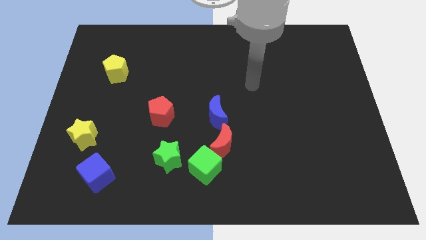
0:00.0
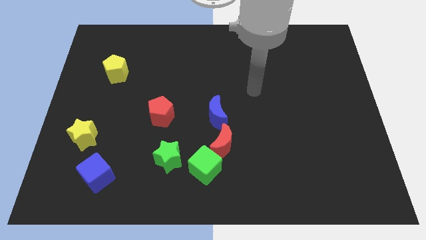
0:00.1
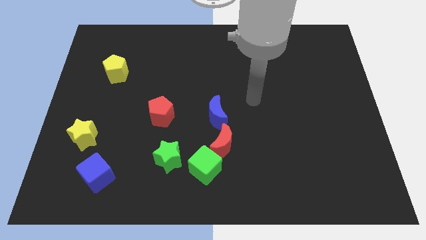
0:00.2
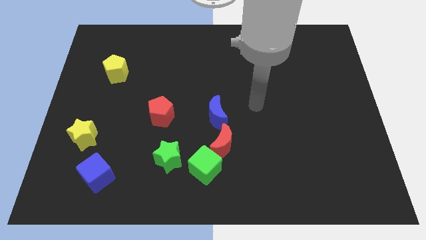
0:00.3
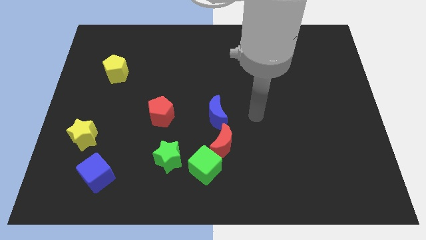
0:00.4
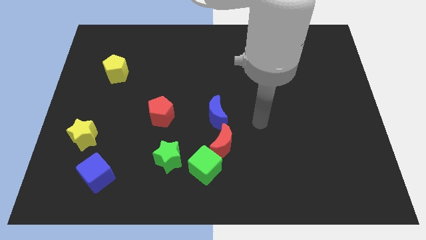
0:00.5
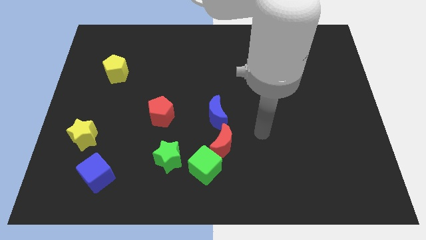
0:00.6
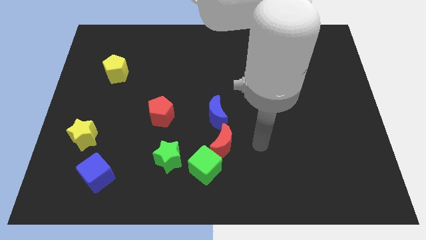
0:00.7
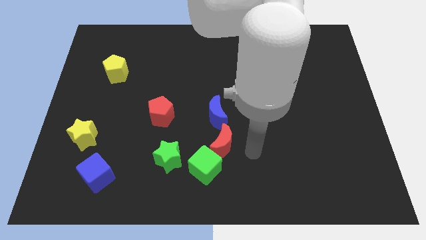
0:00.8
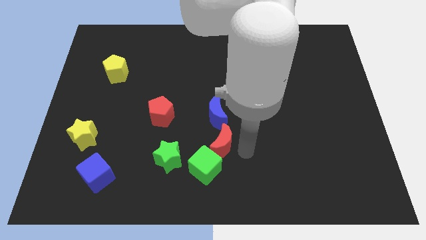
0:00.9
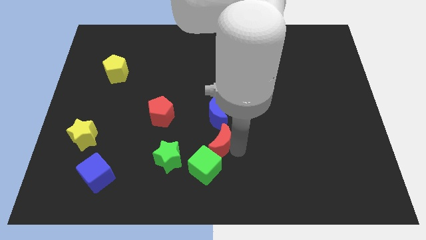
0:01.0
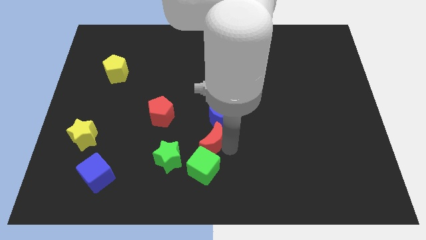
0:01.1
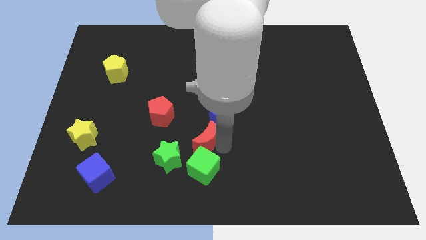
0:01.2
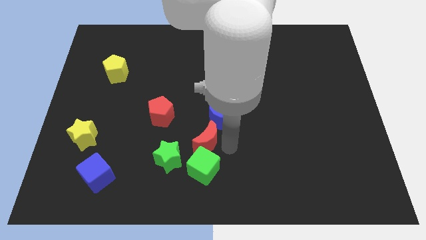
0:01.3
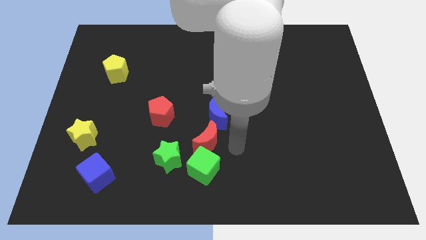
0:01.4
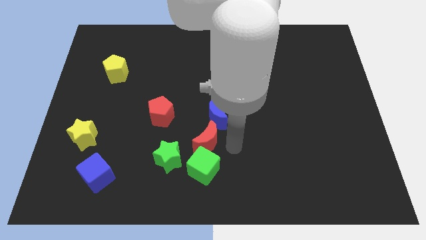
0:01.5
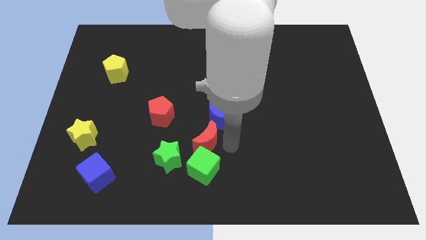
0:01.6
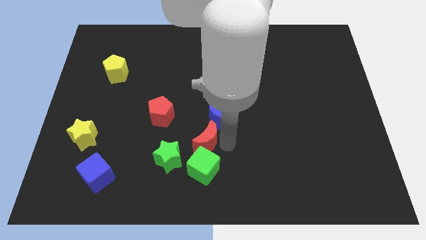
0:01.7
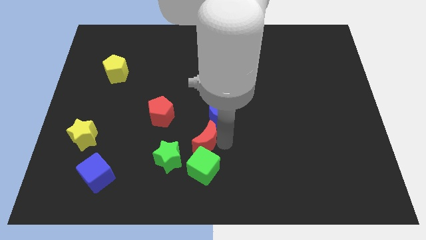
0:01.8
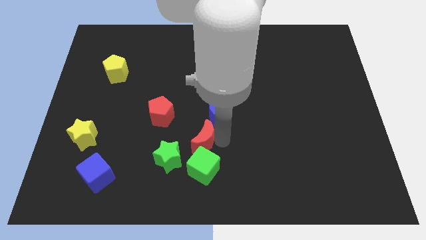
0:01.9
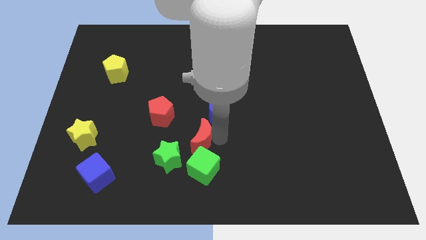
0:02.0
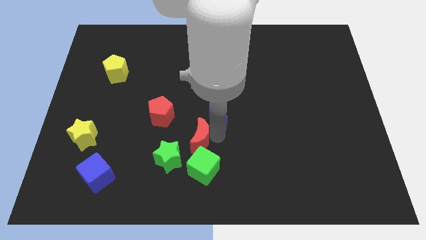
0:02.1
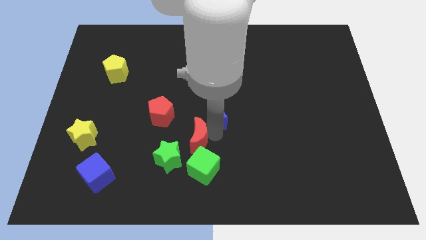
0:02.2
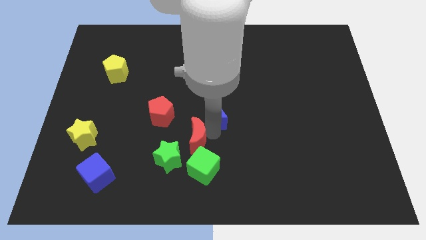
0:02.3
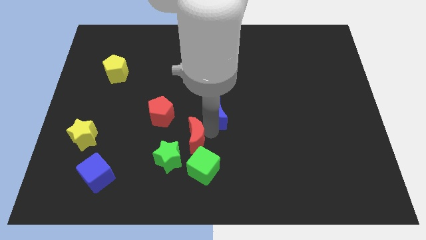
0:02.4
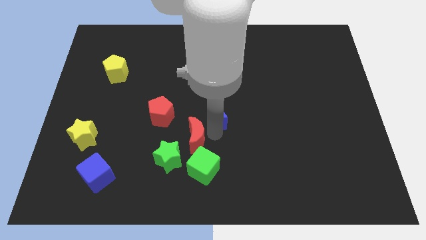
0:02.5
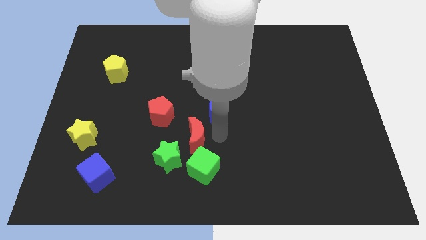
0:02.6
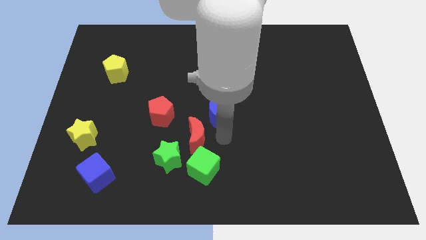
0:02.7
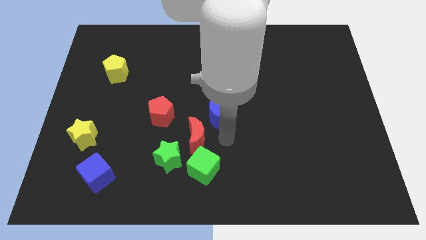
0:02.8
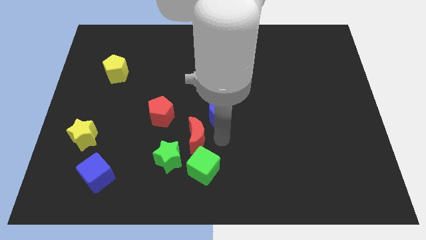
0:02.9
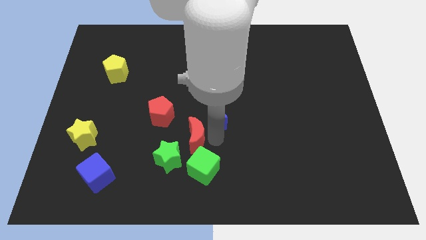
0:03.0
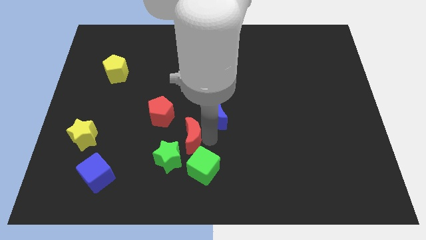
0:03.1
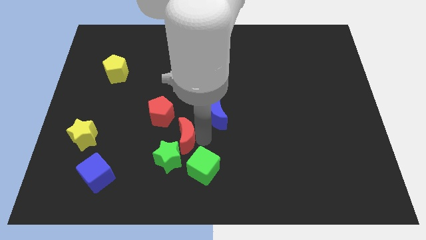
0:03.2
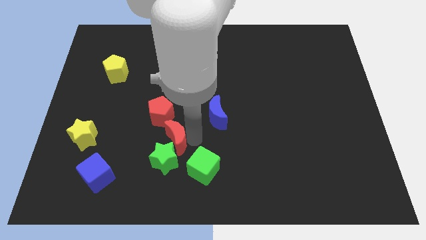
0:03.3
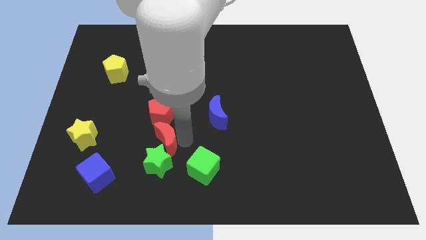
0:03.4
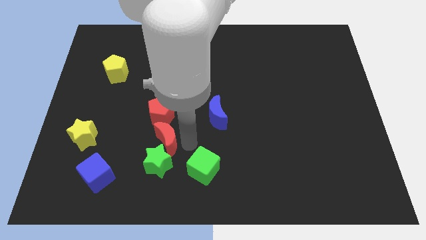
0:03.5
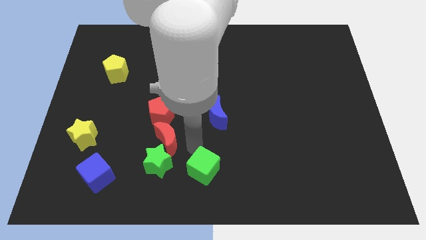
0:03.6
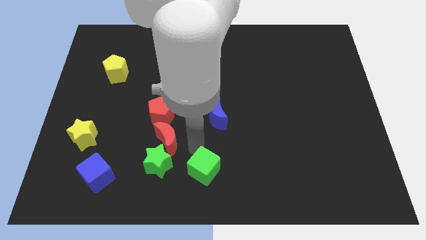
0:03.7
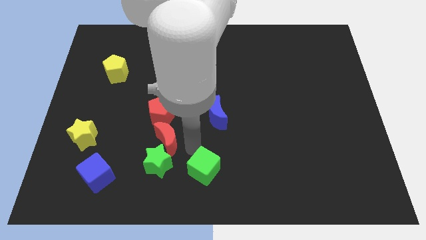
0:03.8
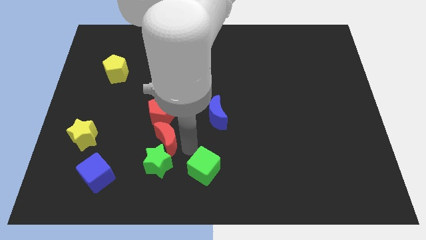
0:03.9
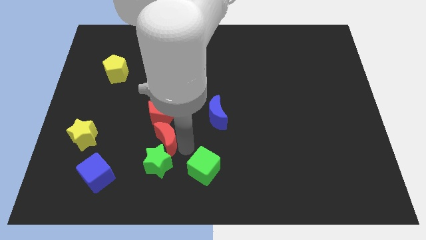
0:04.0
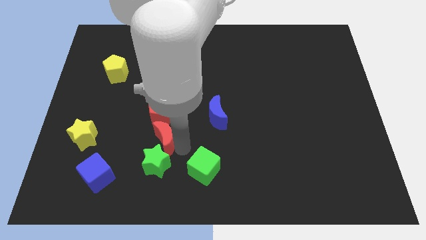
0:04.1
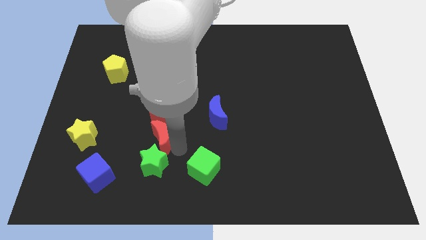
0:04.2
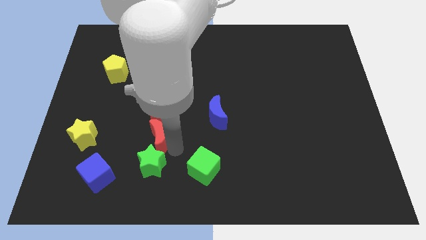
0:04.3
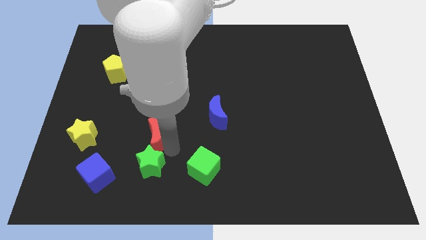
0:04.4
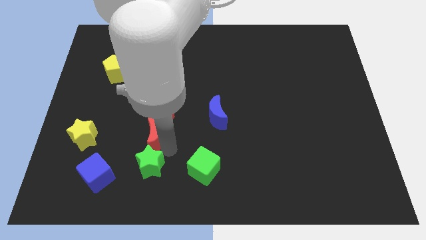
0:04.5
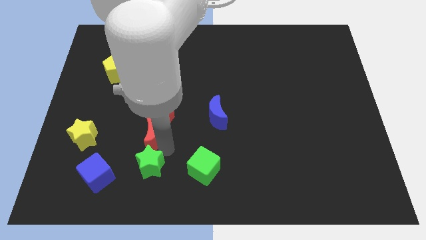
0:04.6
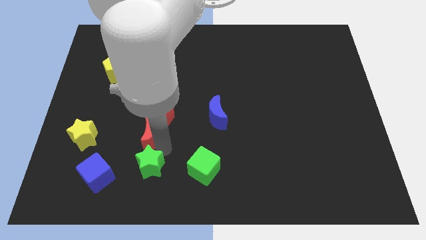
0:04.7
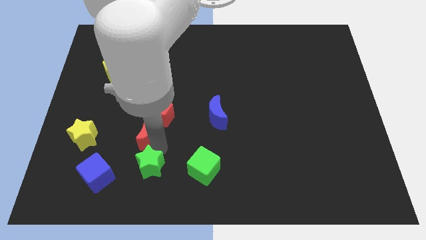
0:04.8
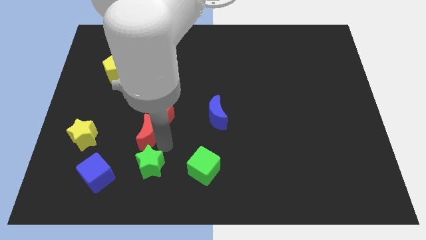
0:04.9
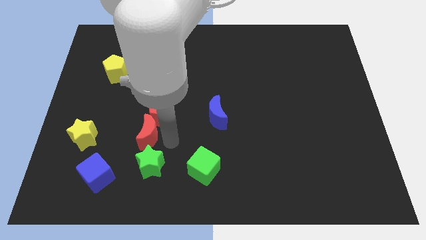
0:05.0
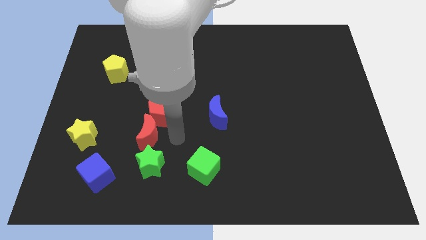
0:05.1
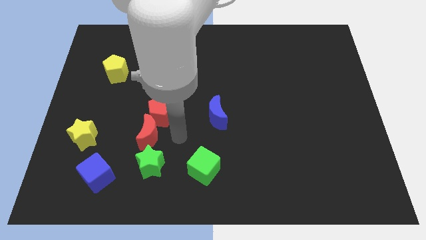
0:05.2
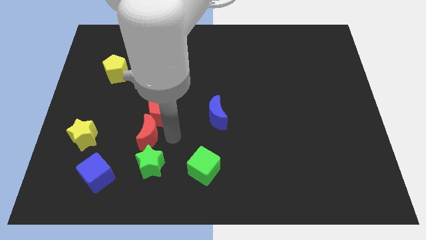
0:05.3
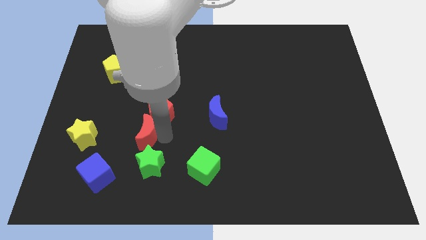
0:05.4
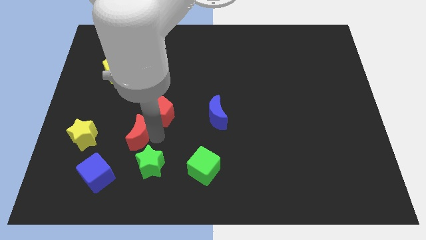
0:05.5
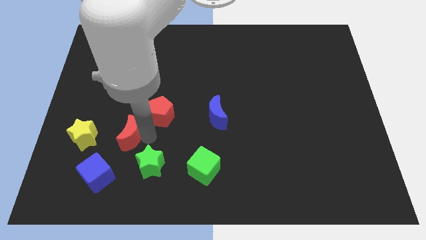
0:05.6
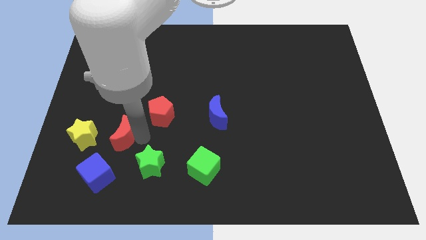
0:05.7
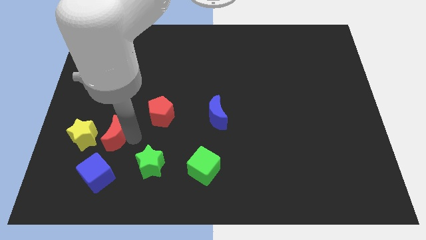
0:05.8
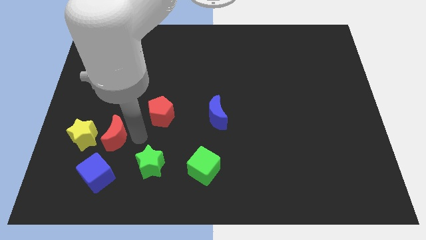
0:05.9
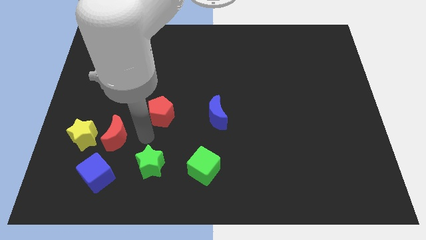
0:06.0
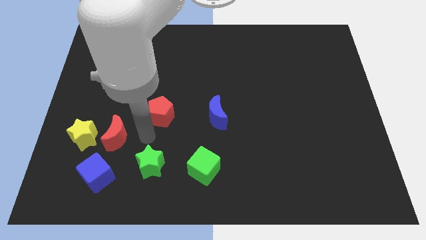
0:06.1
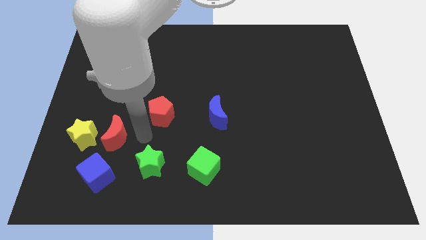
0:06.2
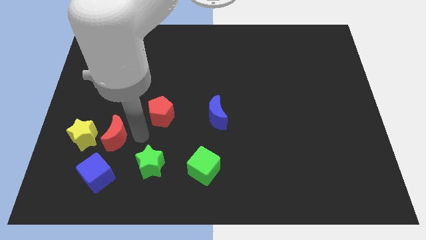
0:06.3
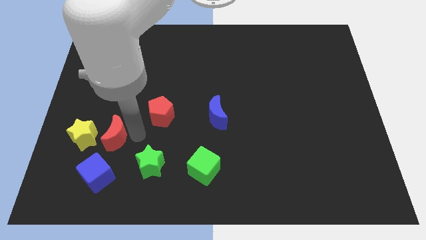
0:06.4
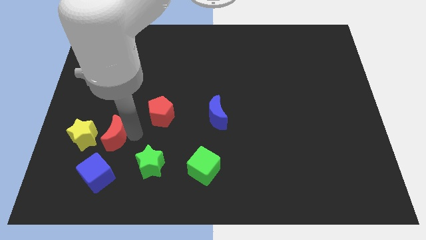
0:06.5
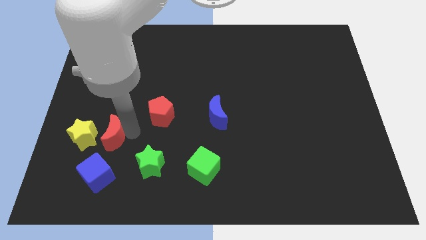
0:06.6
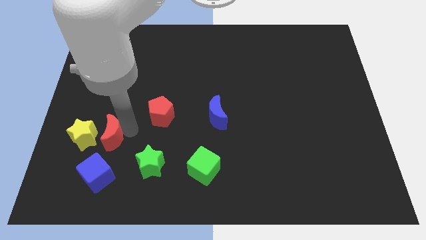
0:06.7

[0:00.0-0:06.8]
move the red moon towards the yellow star
